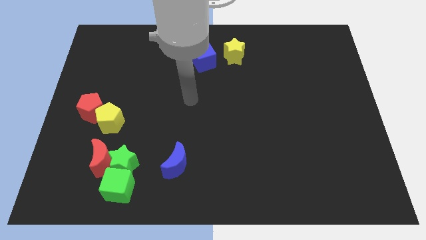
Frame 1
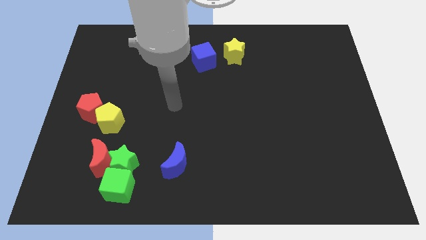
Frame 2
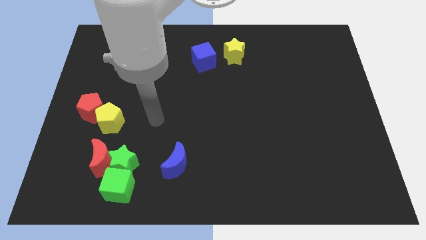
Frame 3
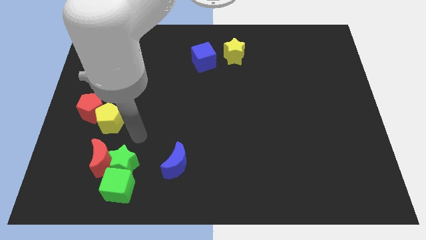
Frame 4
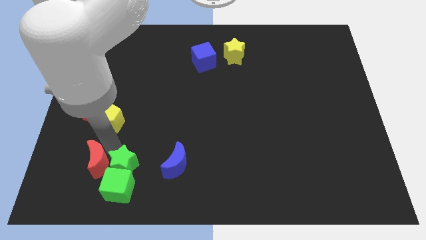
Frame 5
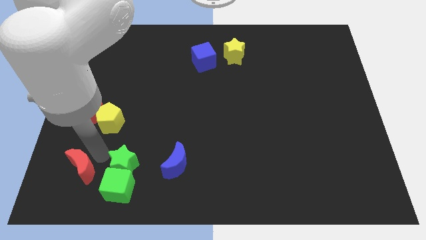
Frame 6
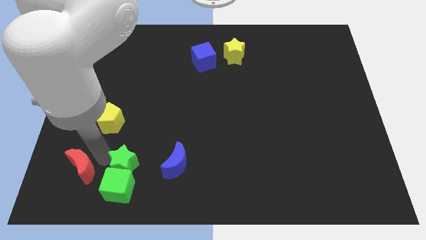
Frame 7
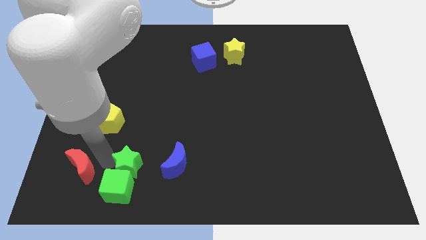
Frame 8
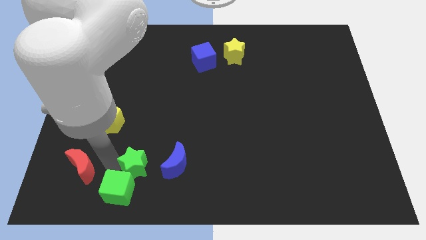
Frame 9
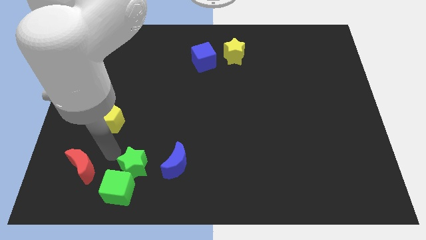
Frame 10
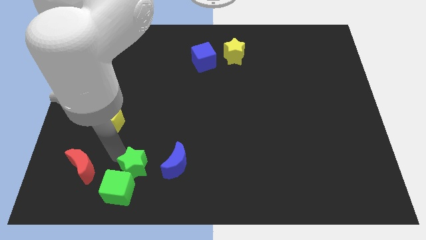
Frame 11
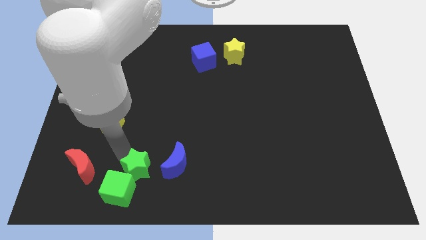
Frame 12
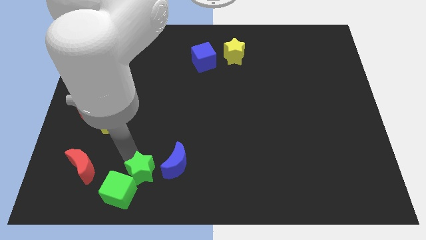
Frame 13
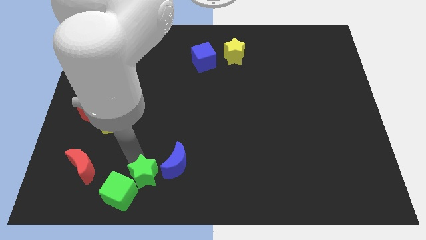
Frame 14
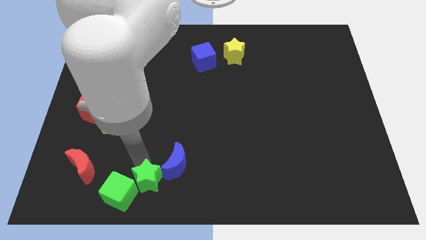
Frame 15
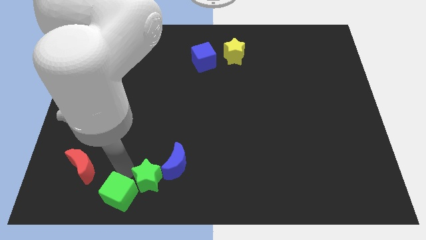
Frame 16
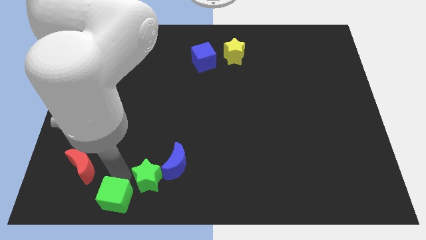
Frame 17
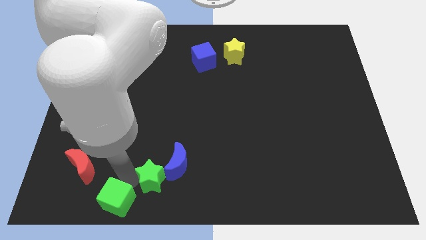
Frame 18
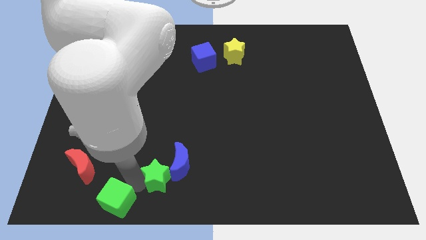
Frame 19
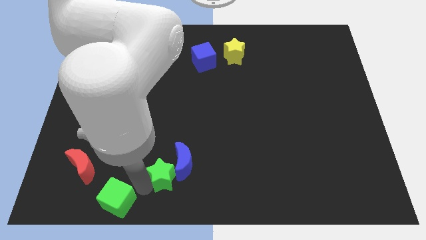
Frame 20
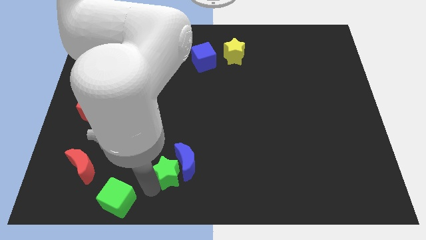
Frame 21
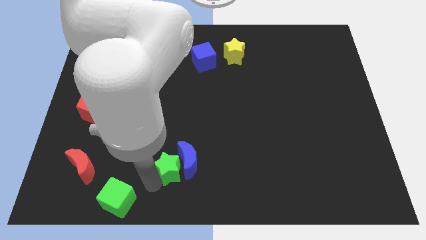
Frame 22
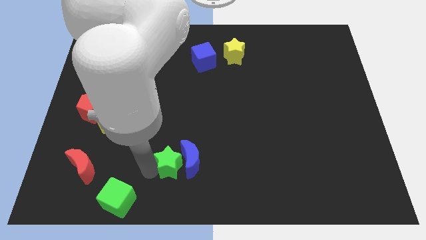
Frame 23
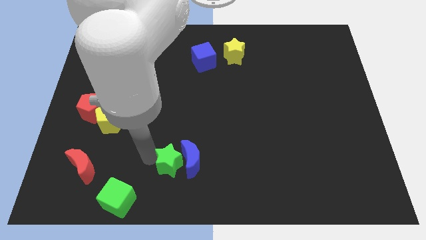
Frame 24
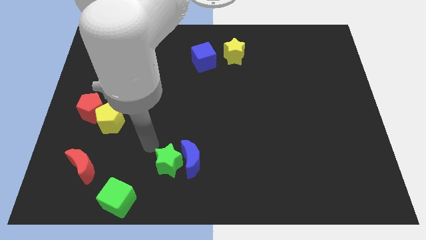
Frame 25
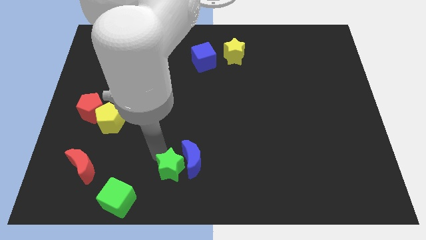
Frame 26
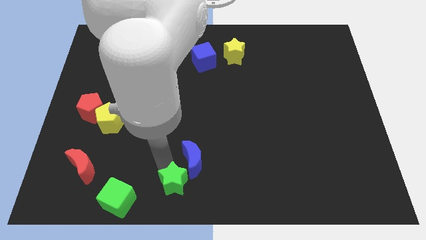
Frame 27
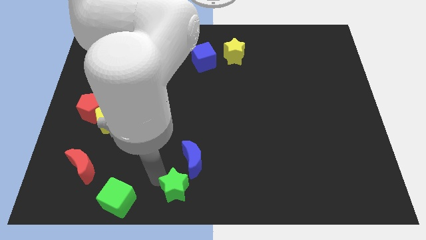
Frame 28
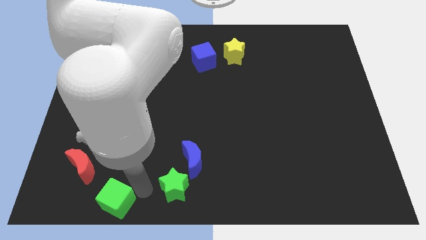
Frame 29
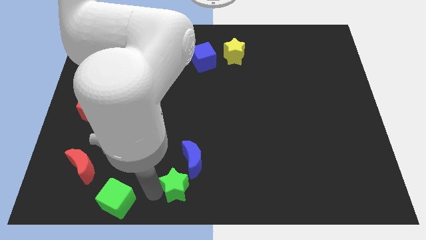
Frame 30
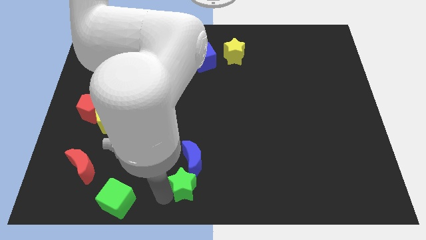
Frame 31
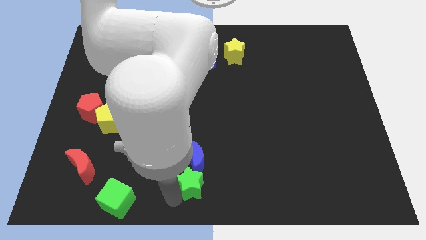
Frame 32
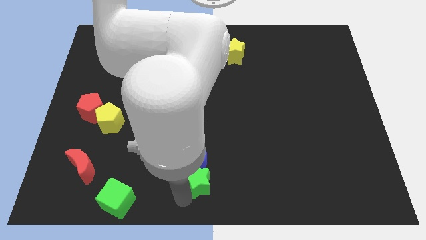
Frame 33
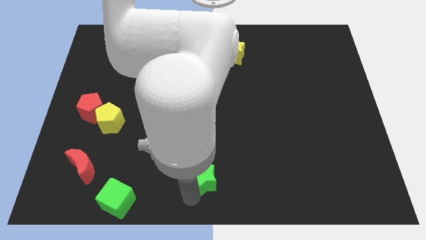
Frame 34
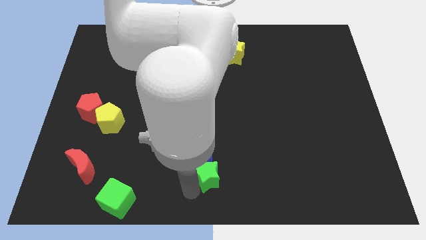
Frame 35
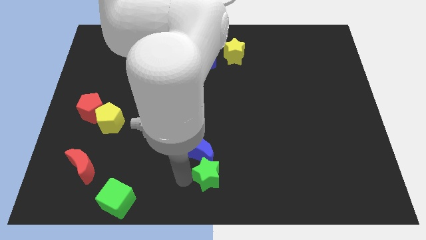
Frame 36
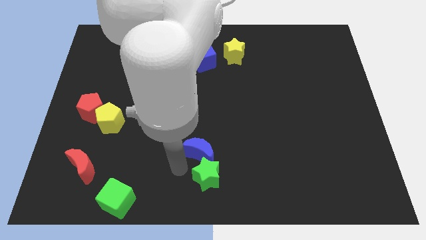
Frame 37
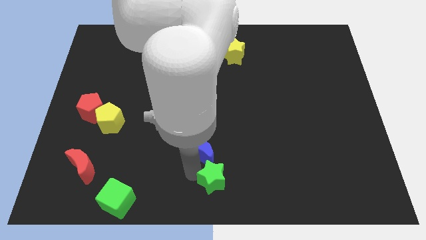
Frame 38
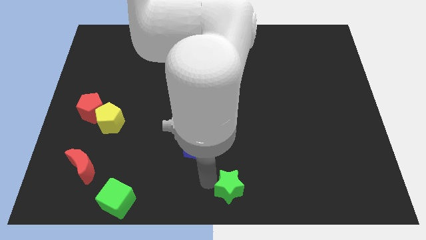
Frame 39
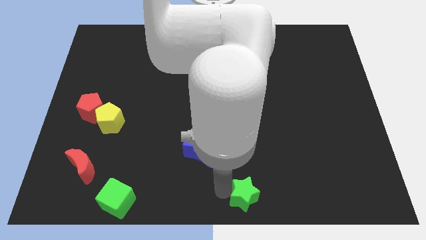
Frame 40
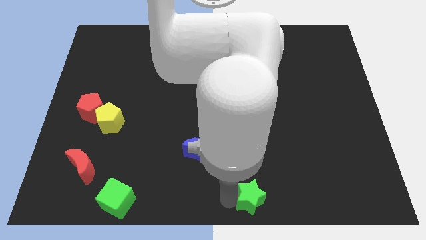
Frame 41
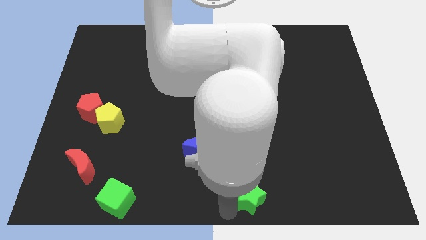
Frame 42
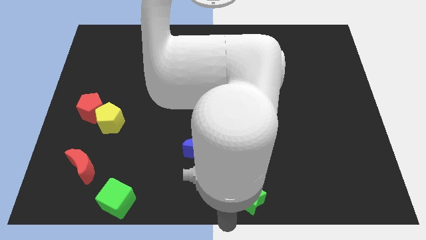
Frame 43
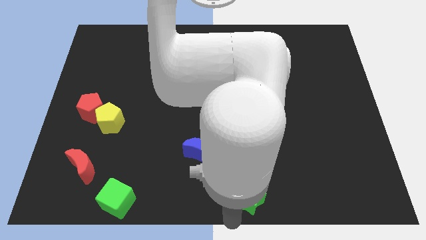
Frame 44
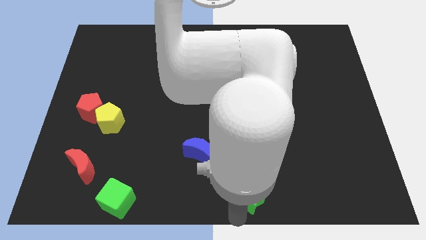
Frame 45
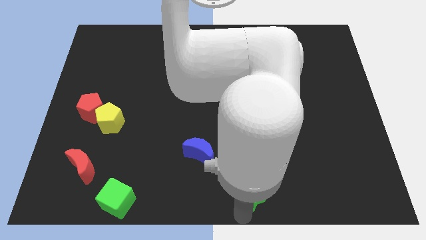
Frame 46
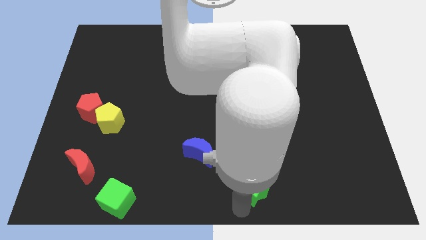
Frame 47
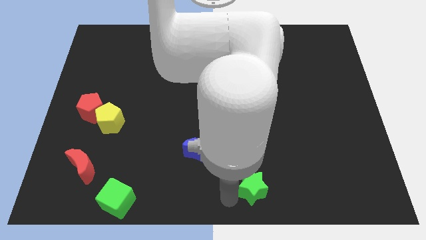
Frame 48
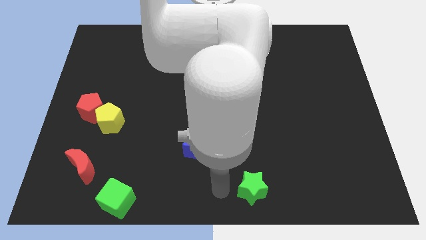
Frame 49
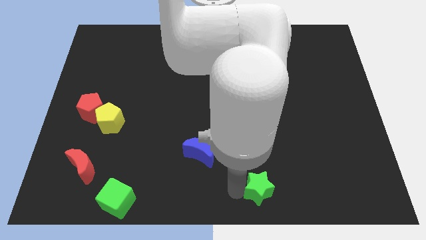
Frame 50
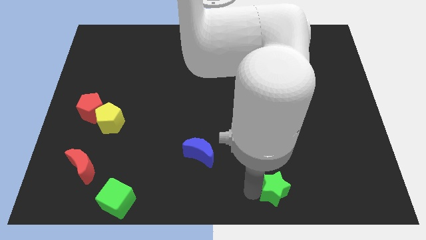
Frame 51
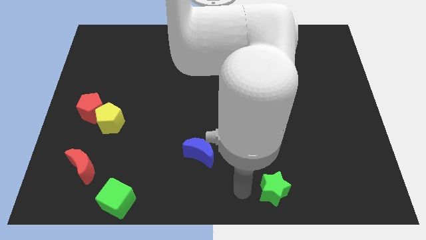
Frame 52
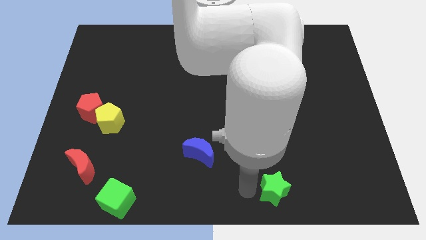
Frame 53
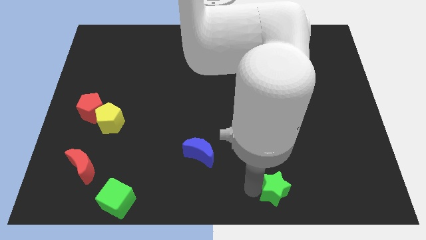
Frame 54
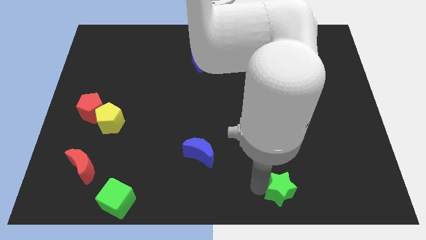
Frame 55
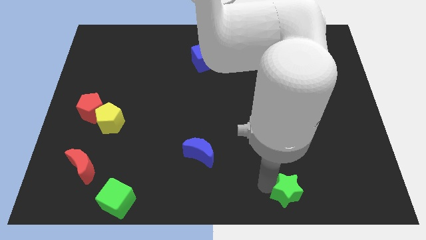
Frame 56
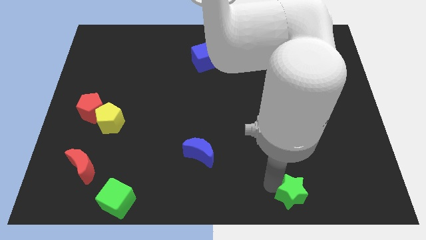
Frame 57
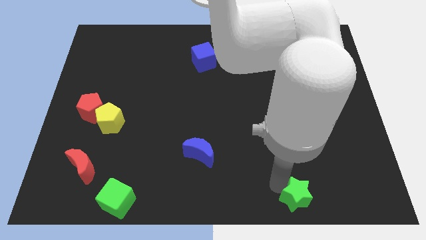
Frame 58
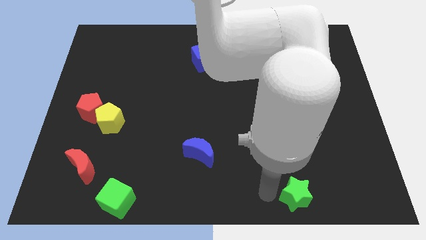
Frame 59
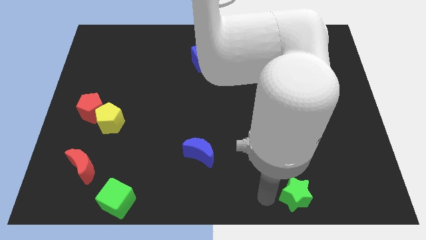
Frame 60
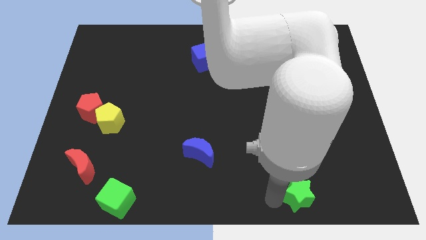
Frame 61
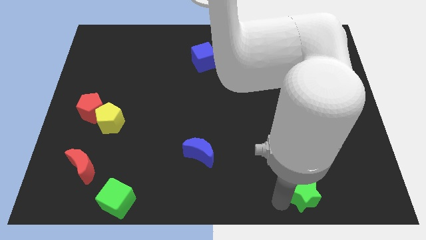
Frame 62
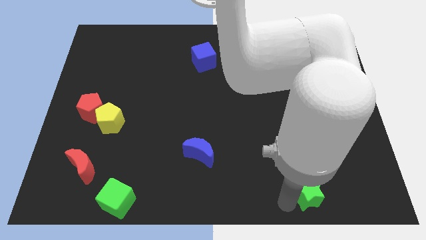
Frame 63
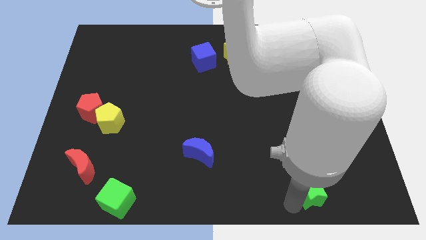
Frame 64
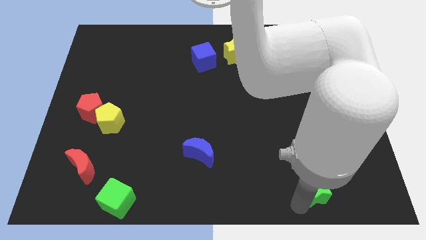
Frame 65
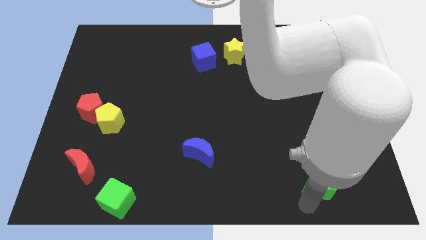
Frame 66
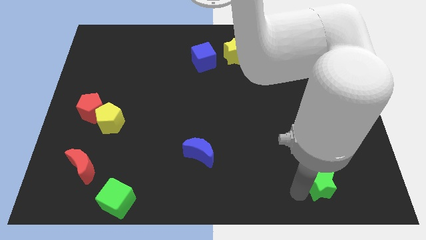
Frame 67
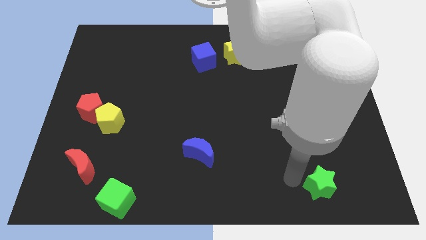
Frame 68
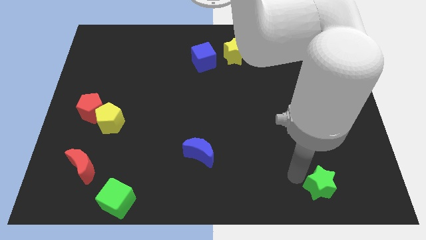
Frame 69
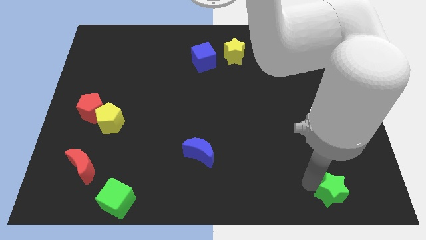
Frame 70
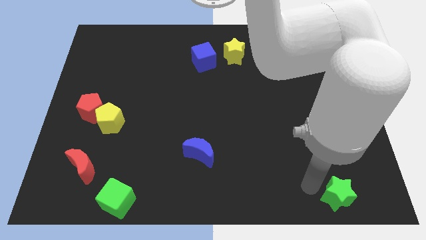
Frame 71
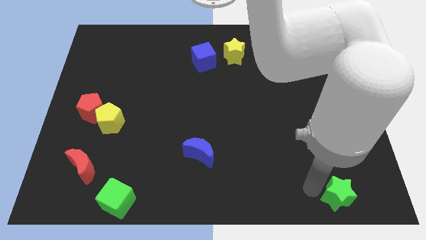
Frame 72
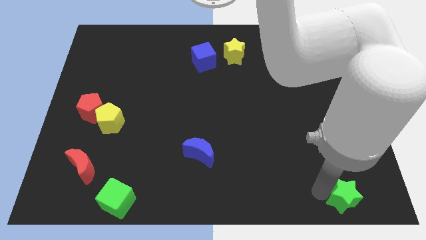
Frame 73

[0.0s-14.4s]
move the green star to the lower right corner
